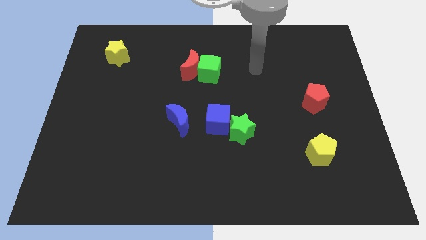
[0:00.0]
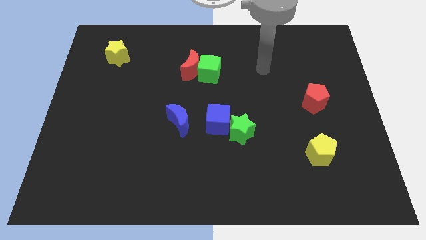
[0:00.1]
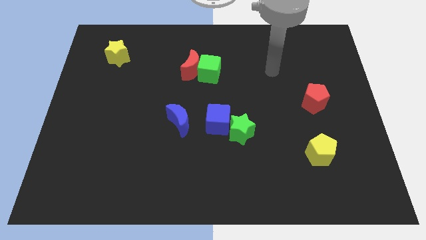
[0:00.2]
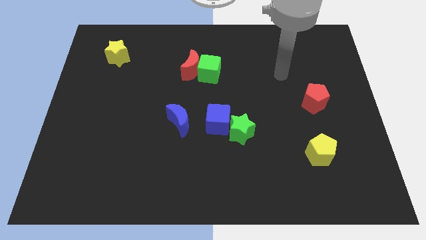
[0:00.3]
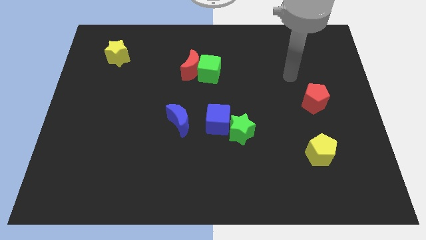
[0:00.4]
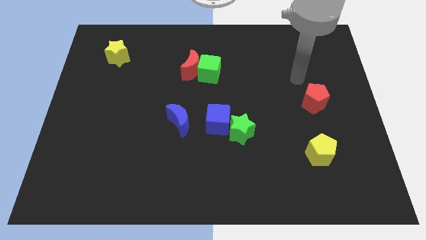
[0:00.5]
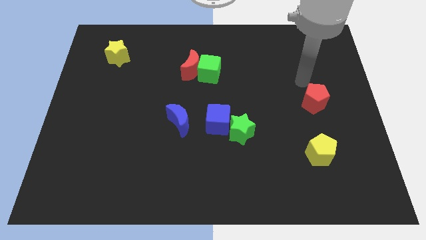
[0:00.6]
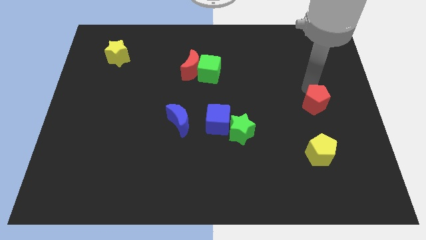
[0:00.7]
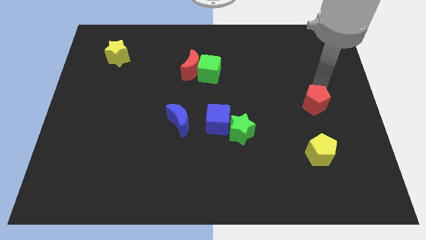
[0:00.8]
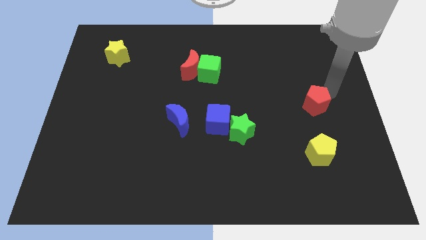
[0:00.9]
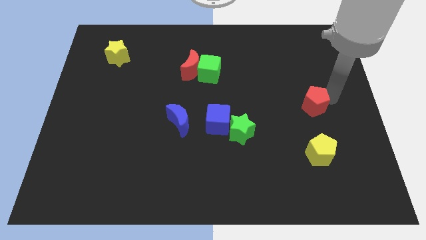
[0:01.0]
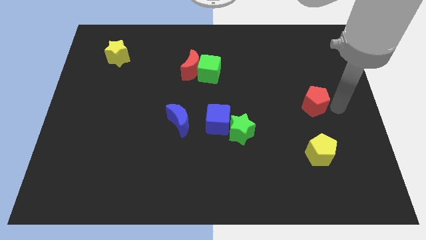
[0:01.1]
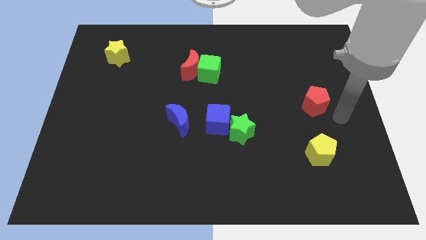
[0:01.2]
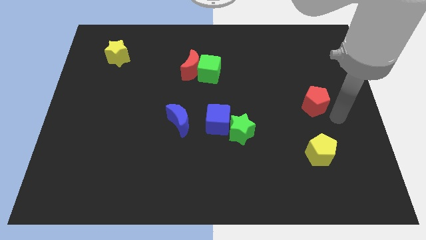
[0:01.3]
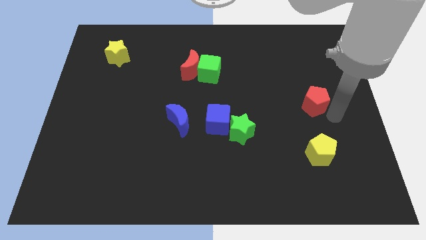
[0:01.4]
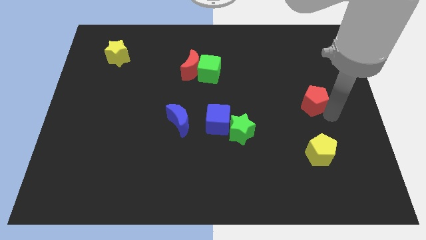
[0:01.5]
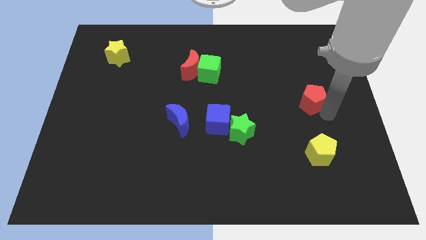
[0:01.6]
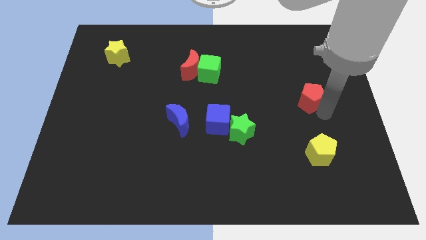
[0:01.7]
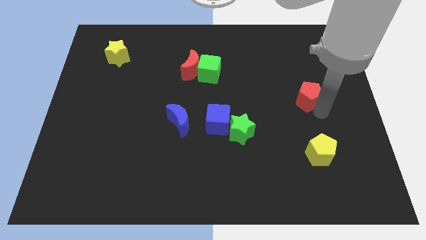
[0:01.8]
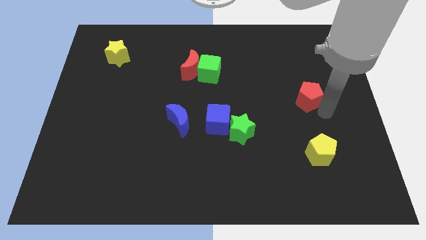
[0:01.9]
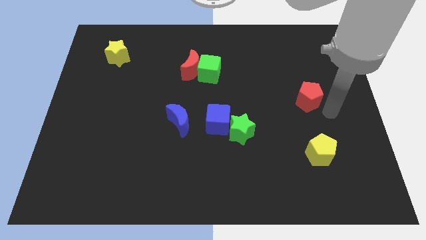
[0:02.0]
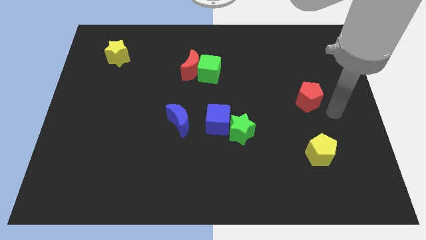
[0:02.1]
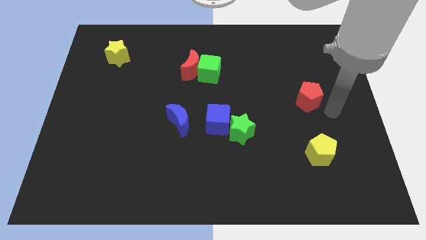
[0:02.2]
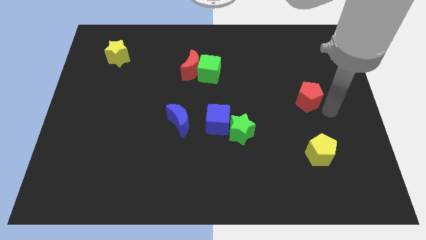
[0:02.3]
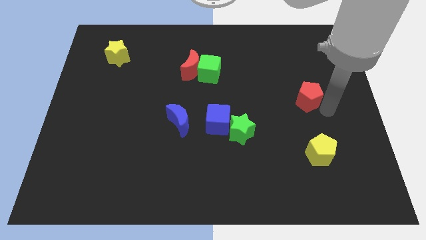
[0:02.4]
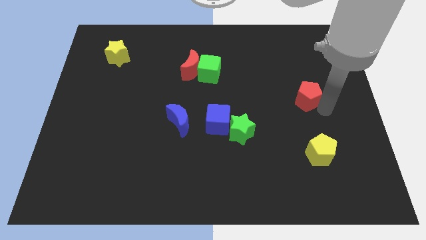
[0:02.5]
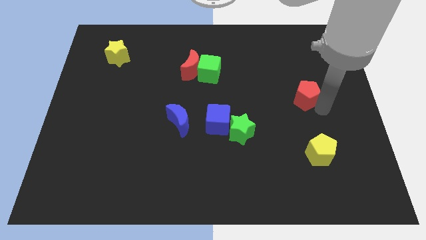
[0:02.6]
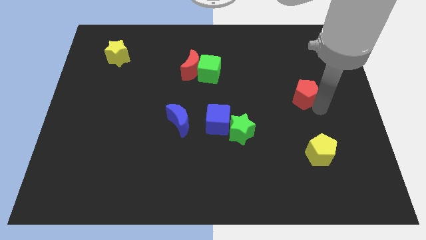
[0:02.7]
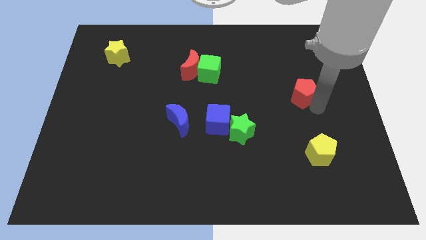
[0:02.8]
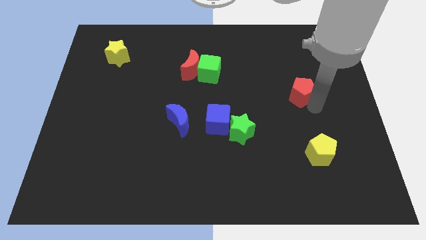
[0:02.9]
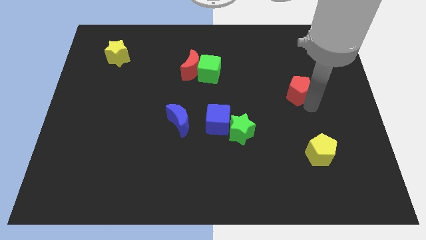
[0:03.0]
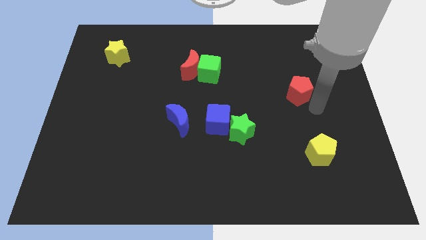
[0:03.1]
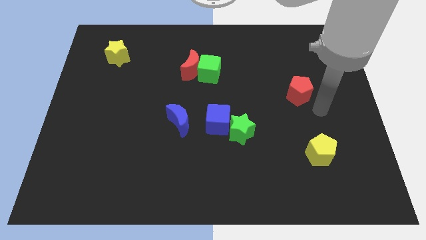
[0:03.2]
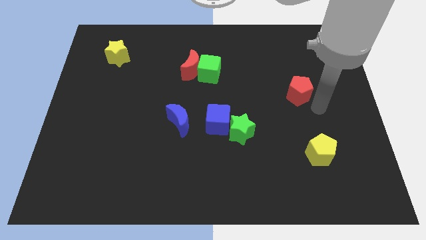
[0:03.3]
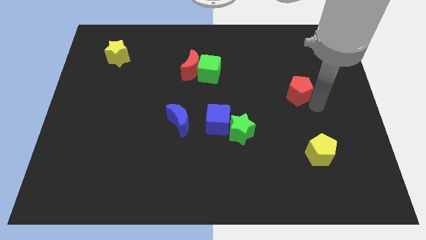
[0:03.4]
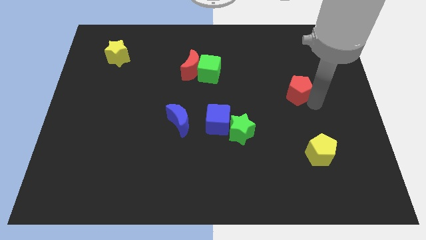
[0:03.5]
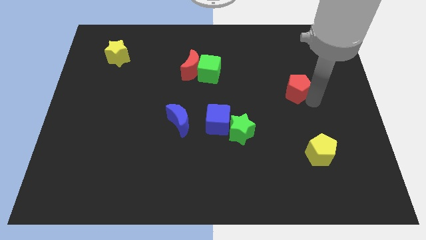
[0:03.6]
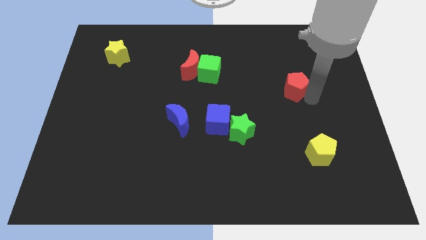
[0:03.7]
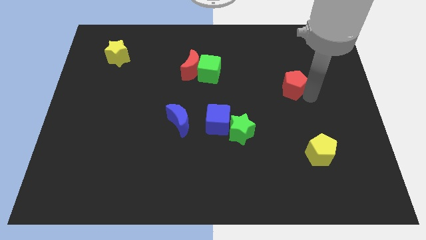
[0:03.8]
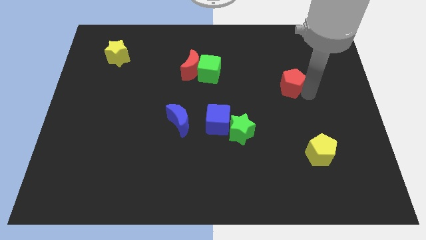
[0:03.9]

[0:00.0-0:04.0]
push the red pentagon a little bit up and to the left diagonally

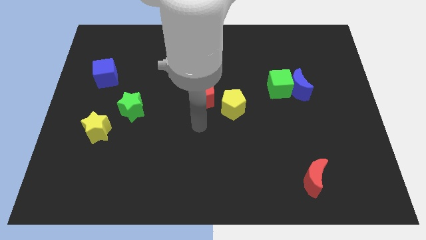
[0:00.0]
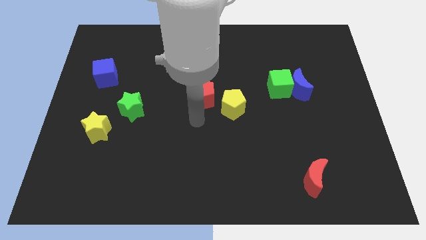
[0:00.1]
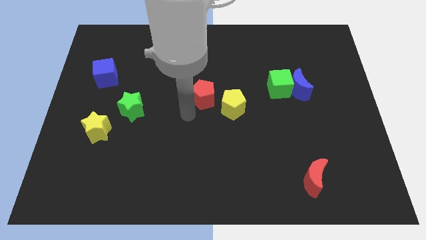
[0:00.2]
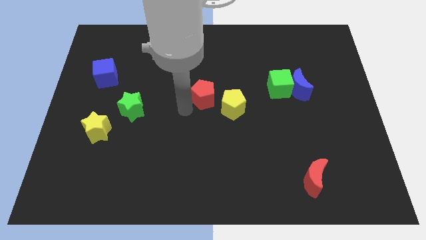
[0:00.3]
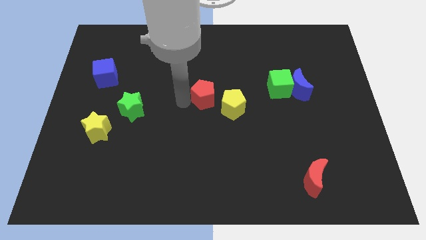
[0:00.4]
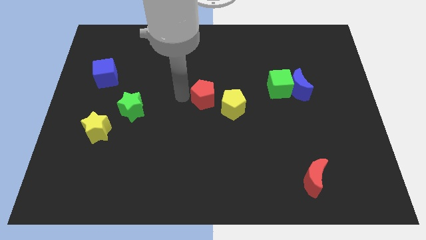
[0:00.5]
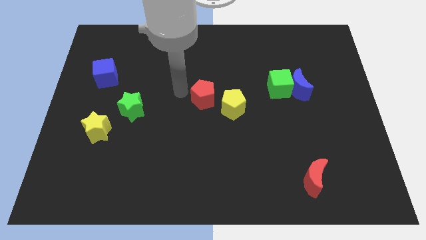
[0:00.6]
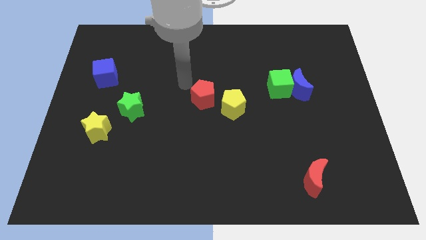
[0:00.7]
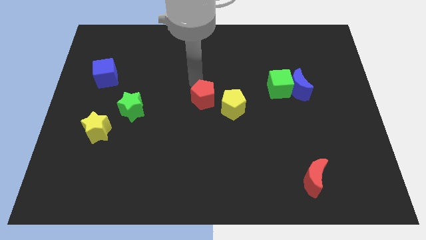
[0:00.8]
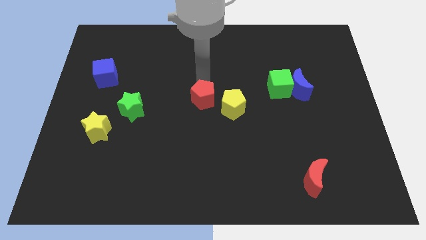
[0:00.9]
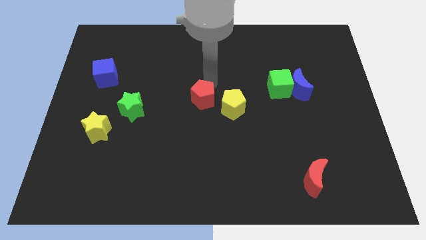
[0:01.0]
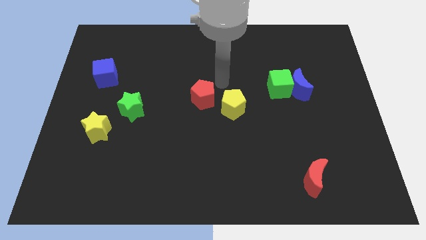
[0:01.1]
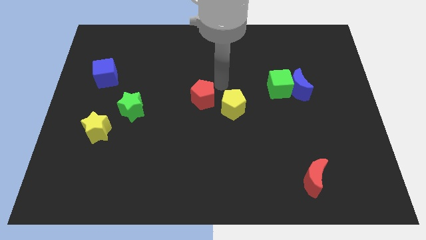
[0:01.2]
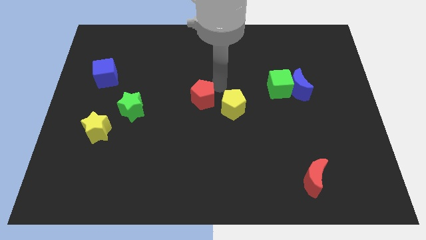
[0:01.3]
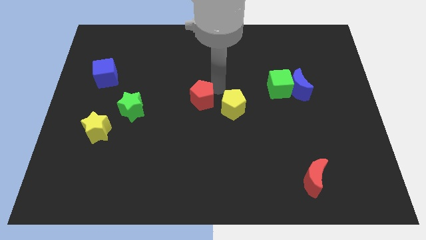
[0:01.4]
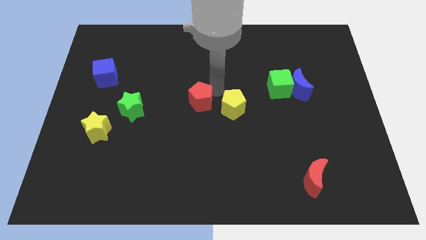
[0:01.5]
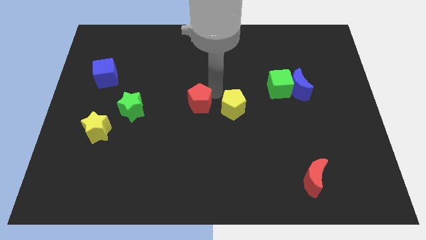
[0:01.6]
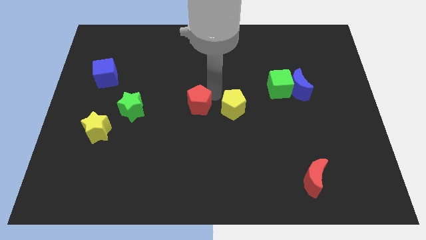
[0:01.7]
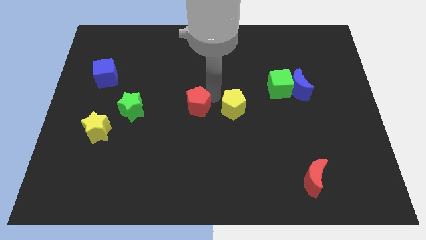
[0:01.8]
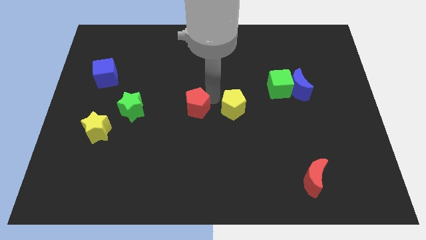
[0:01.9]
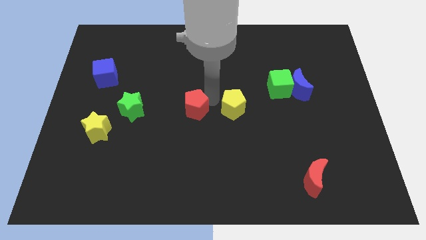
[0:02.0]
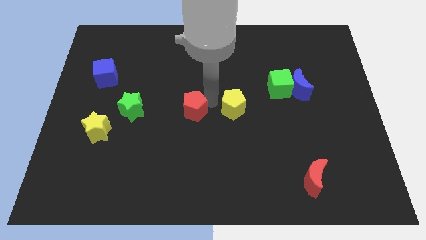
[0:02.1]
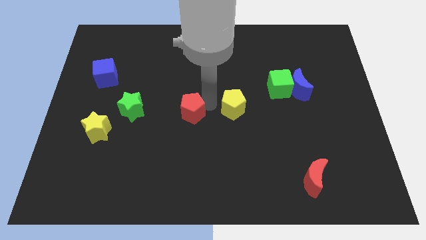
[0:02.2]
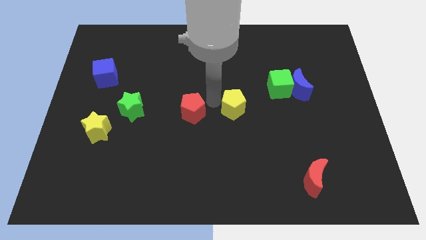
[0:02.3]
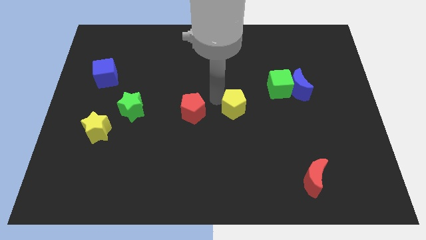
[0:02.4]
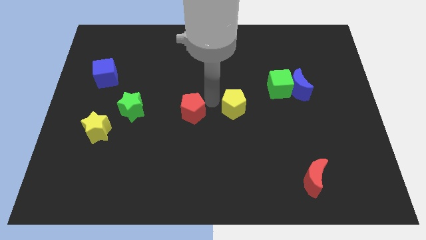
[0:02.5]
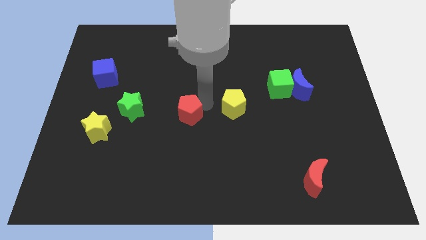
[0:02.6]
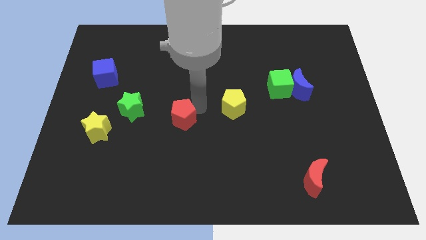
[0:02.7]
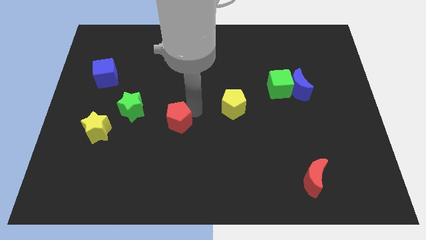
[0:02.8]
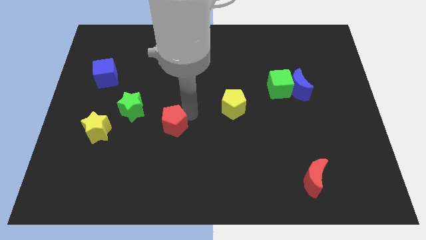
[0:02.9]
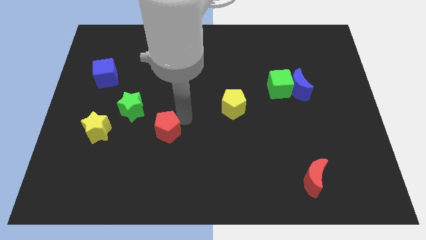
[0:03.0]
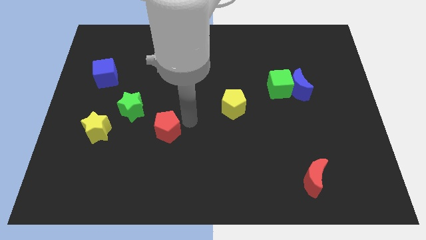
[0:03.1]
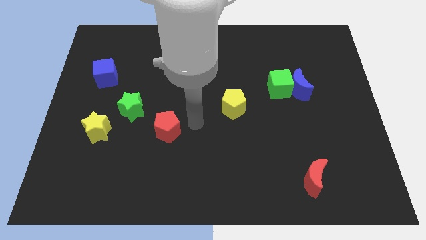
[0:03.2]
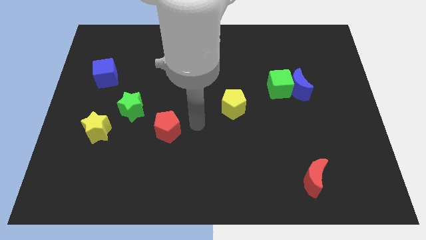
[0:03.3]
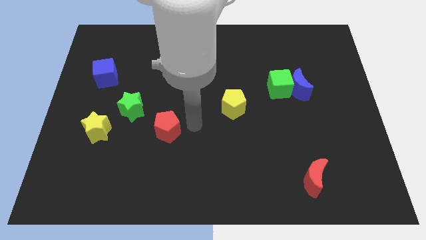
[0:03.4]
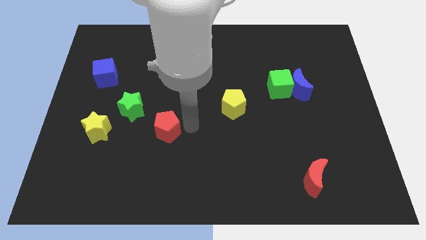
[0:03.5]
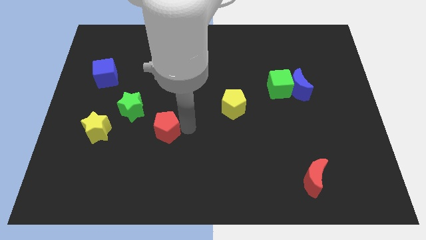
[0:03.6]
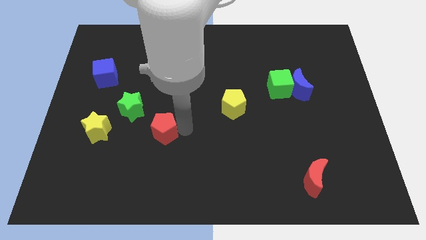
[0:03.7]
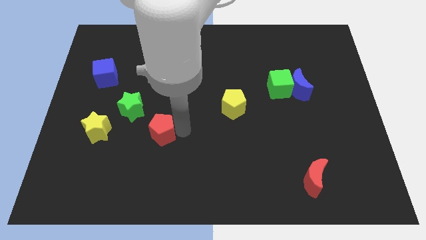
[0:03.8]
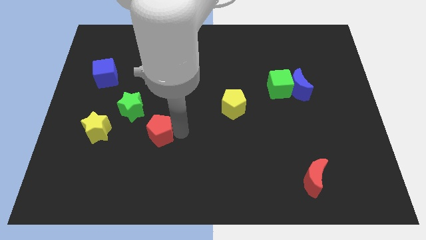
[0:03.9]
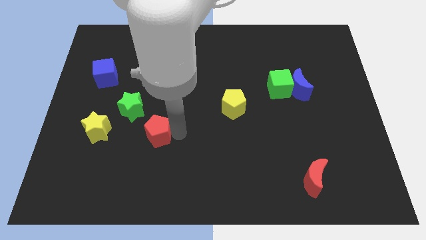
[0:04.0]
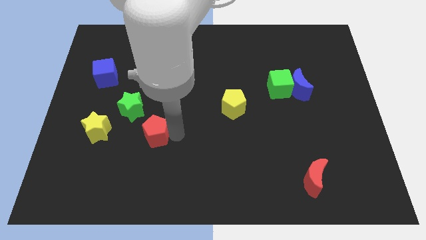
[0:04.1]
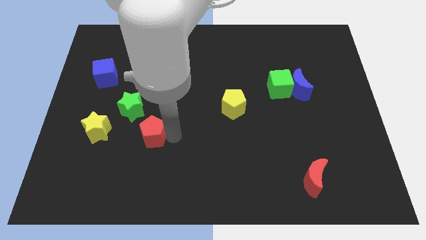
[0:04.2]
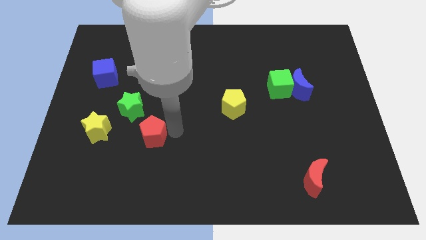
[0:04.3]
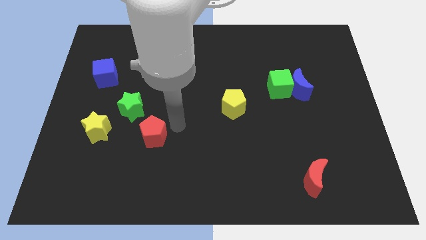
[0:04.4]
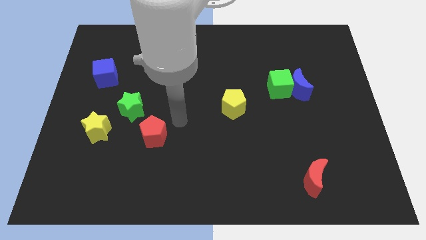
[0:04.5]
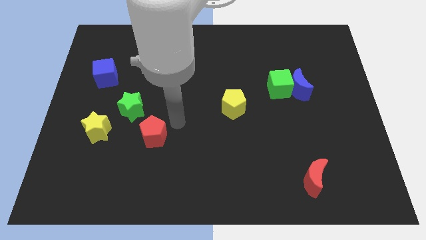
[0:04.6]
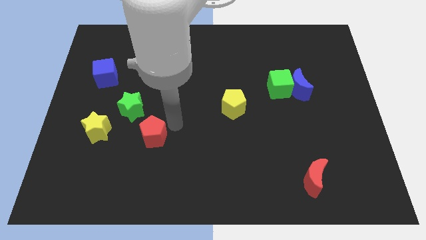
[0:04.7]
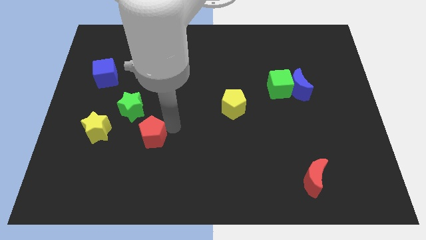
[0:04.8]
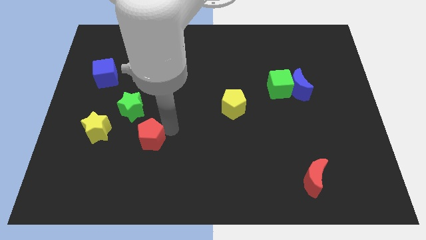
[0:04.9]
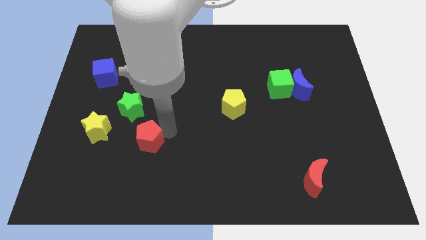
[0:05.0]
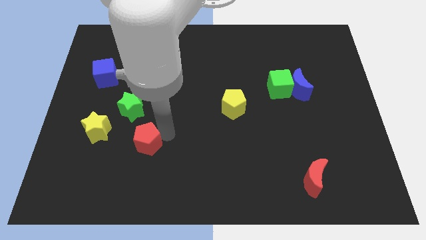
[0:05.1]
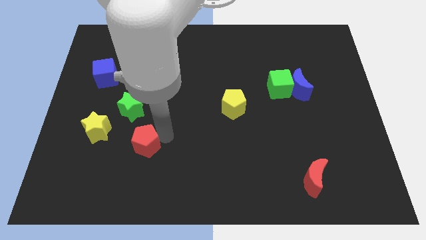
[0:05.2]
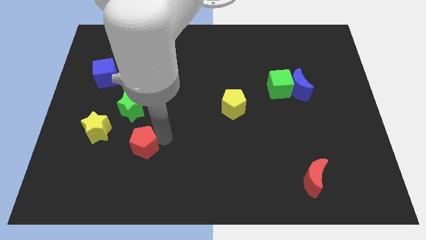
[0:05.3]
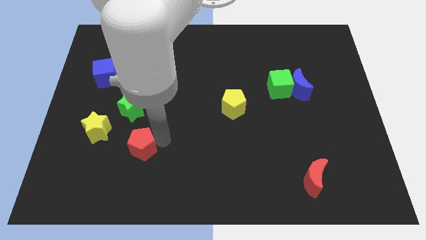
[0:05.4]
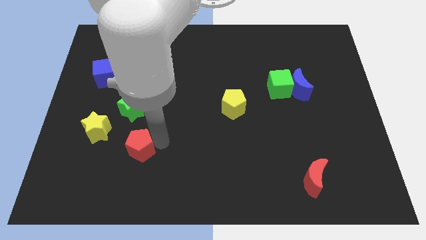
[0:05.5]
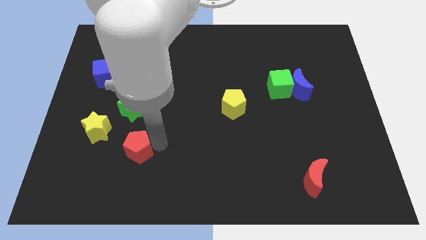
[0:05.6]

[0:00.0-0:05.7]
push the red pentagon down and then left
